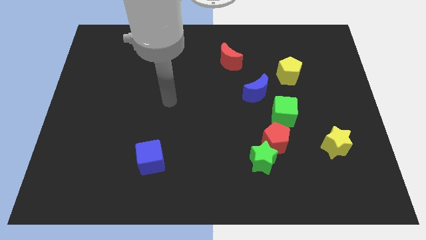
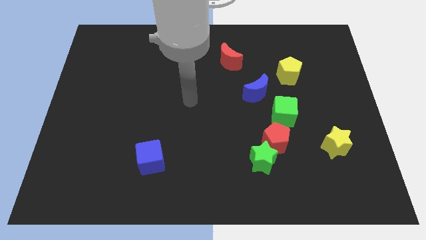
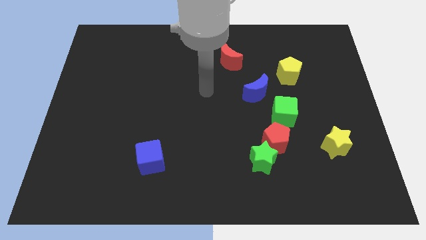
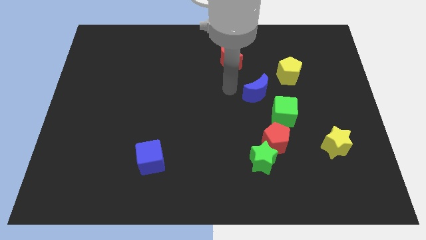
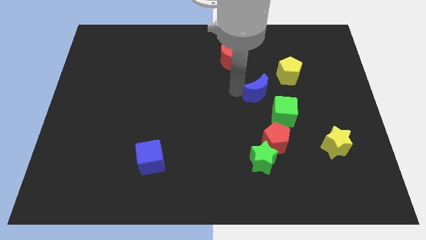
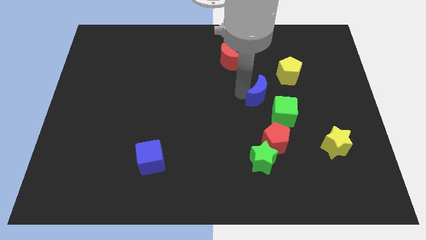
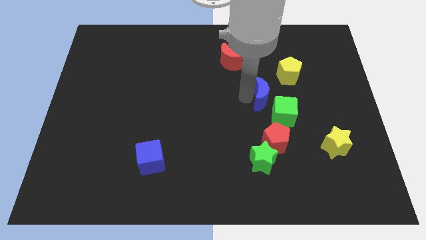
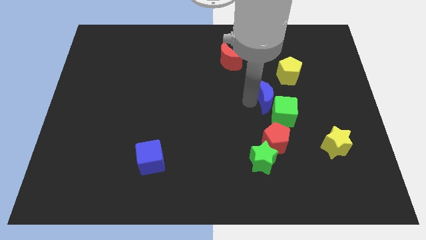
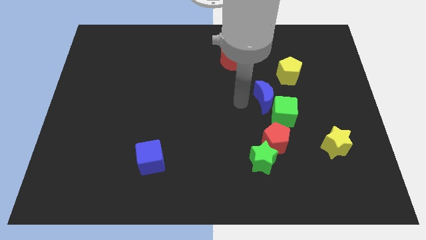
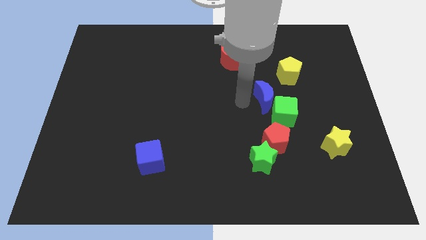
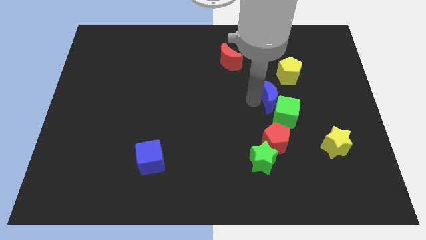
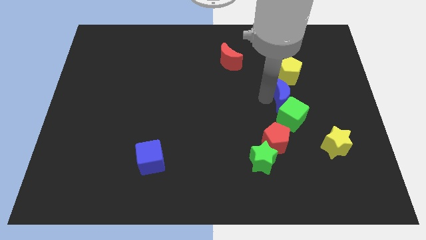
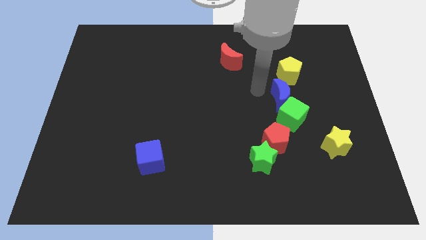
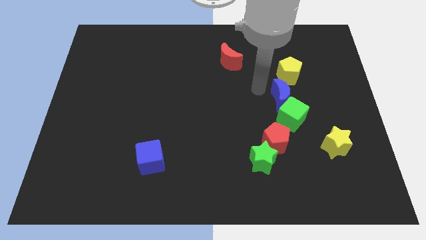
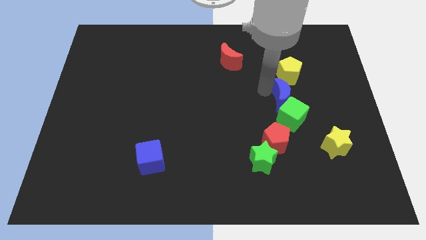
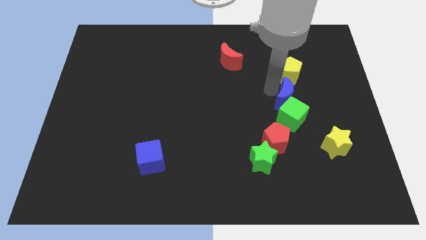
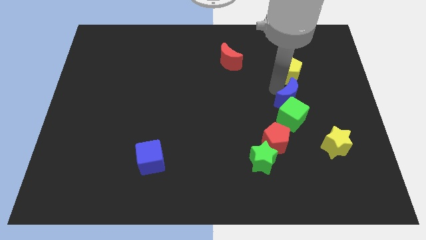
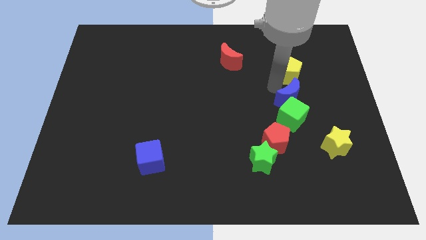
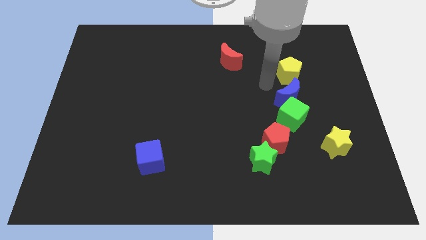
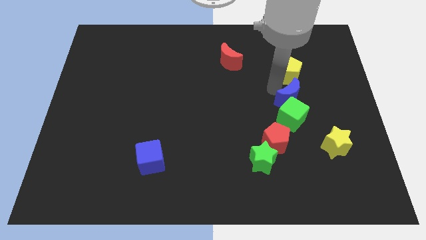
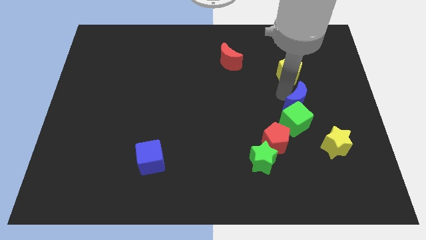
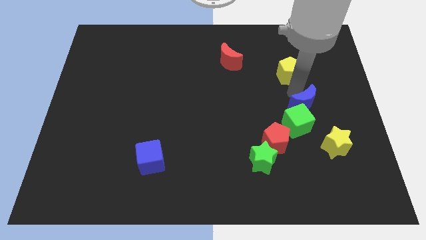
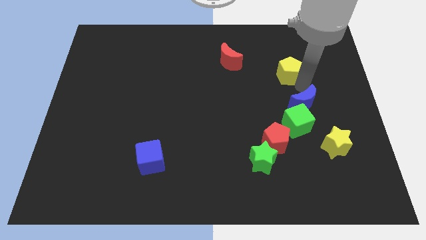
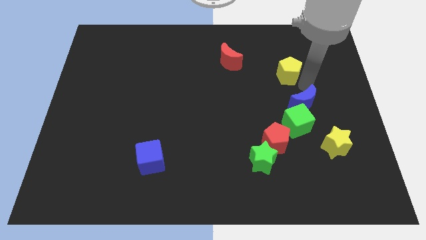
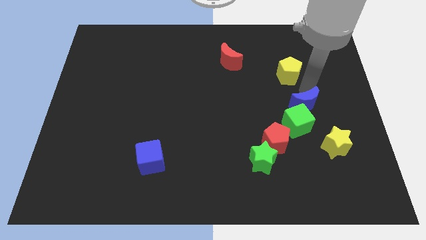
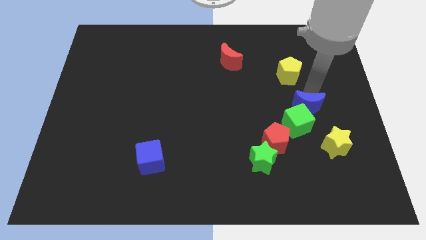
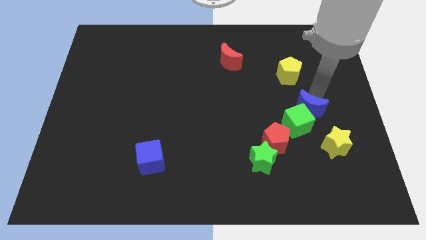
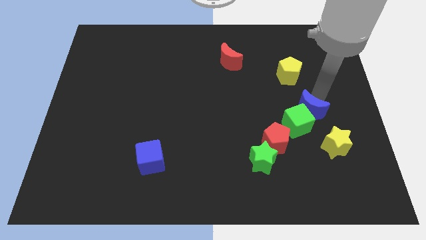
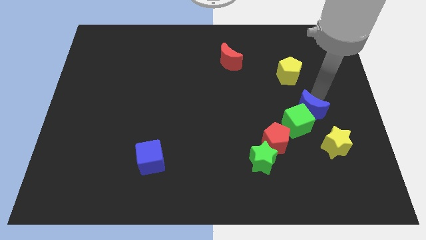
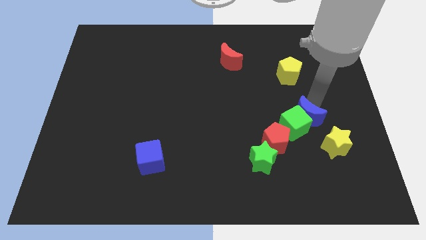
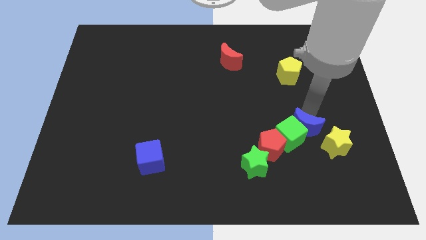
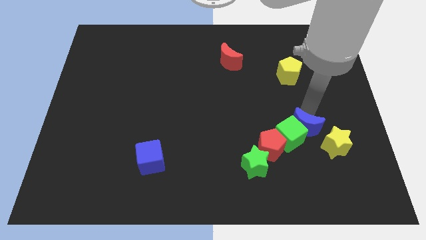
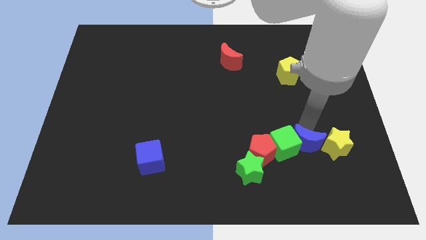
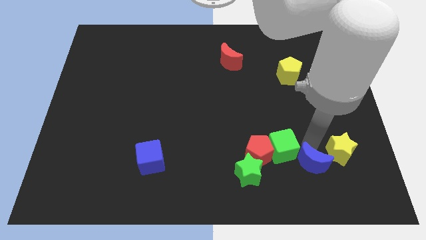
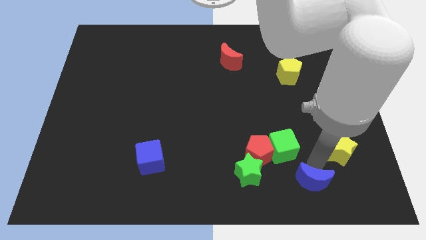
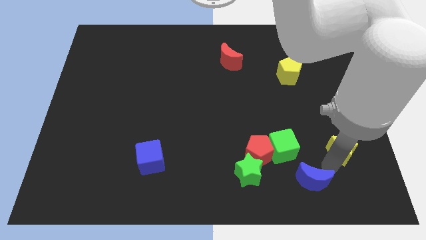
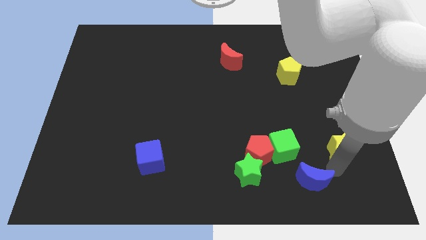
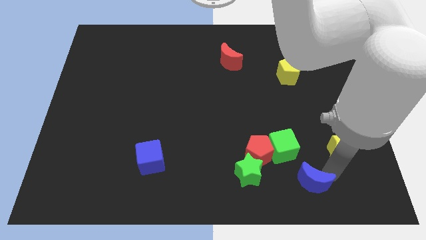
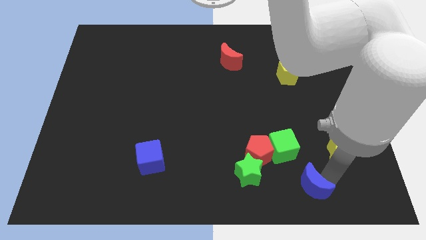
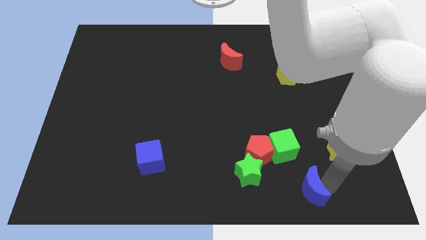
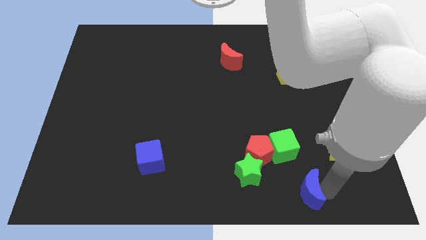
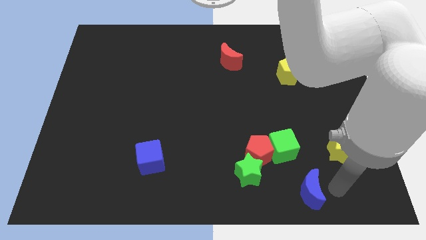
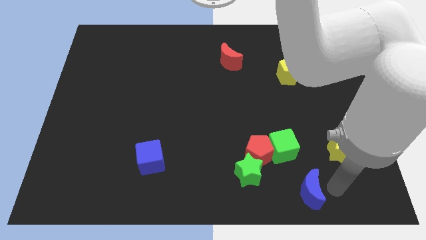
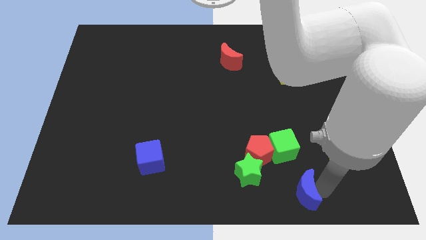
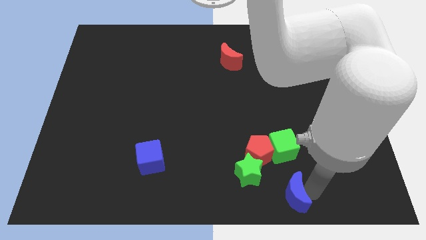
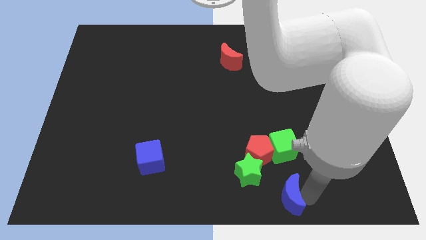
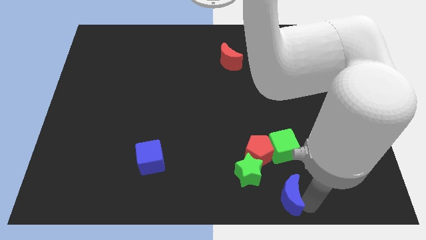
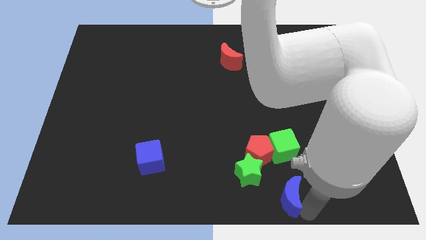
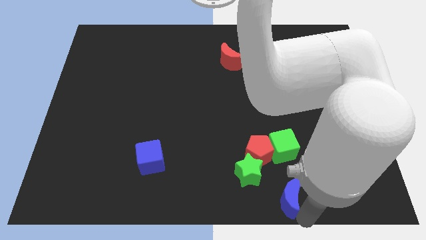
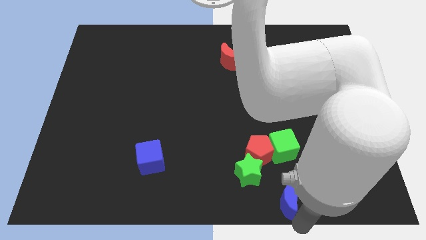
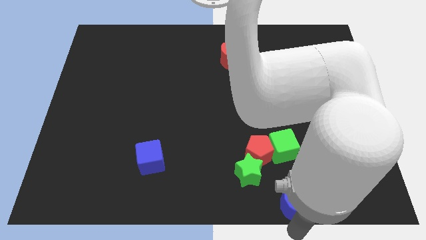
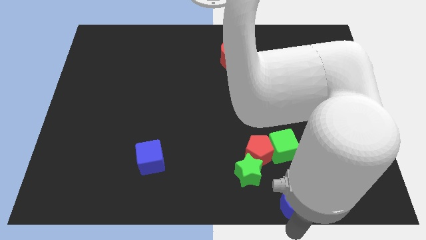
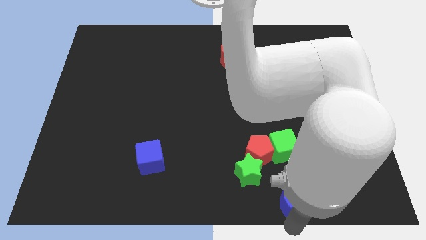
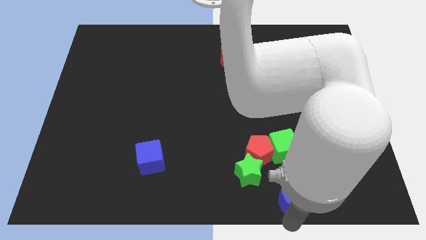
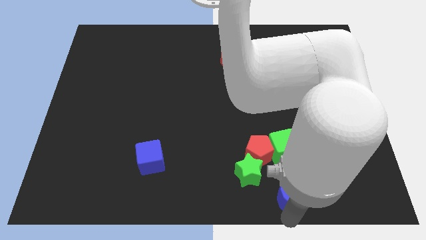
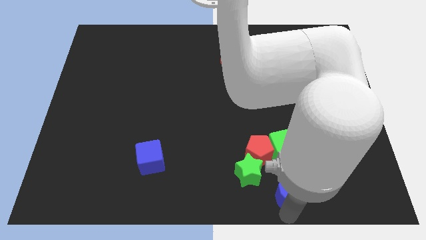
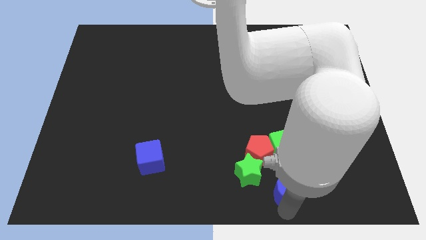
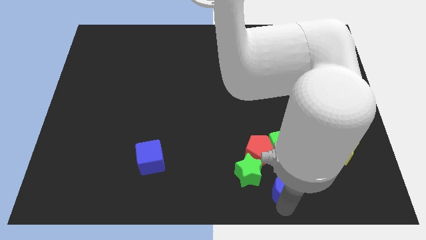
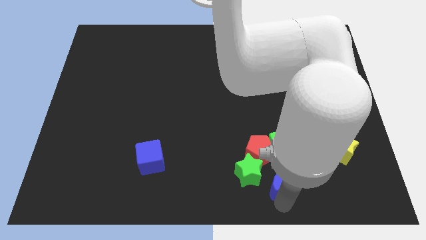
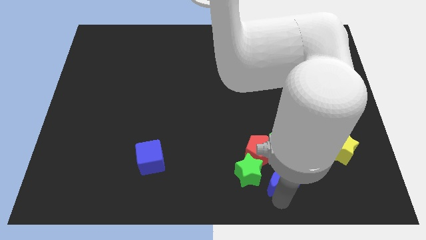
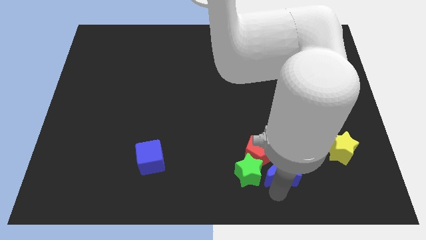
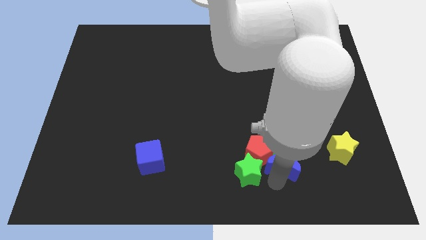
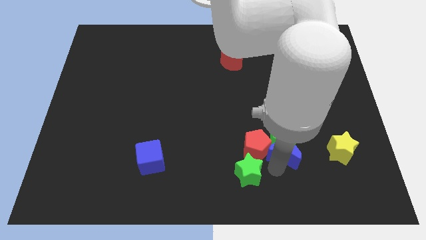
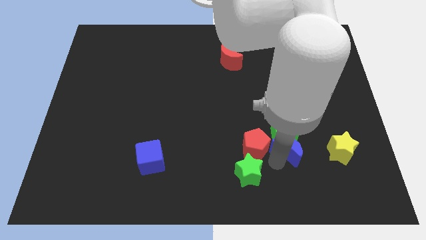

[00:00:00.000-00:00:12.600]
move the blue moon below the green cube

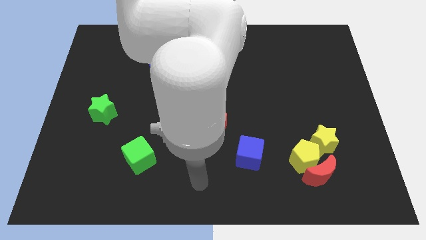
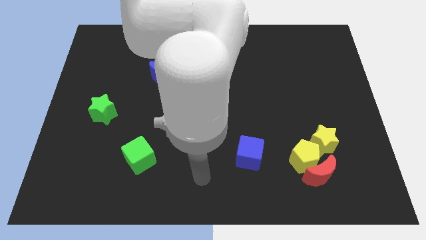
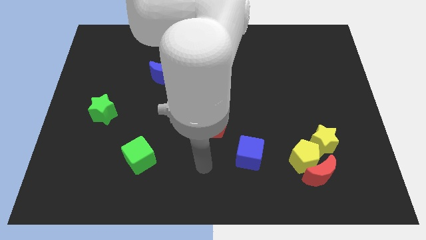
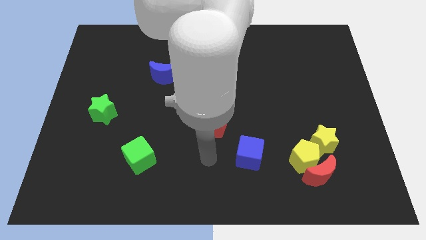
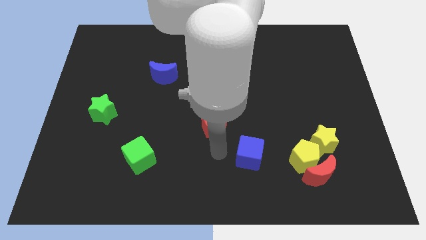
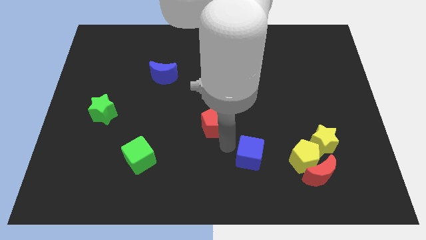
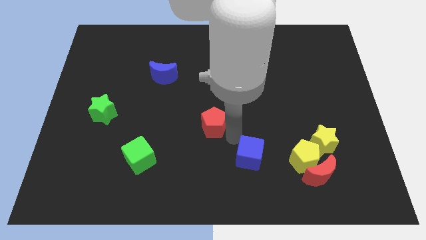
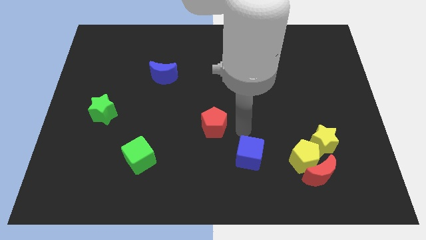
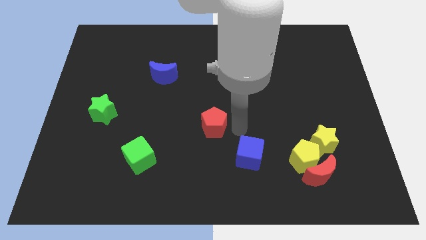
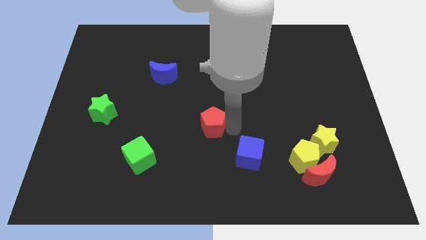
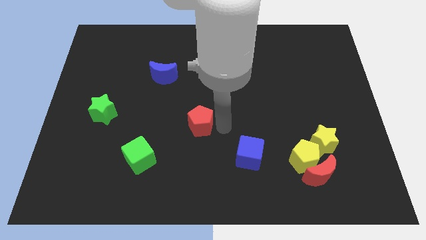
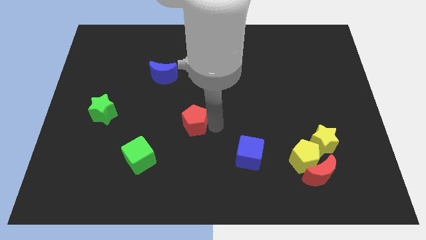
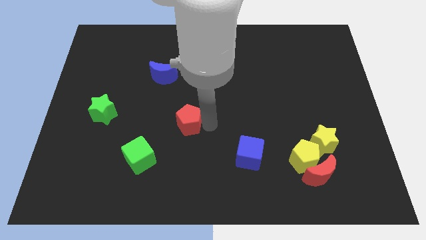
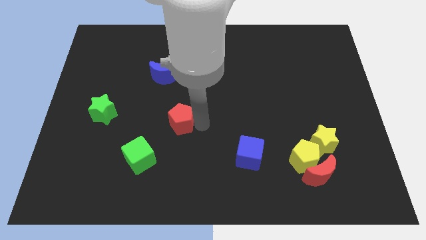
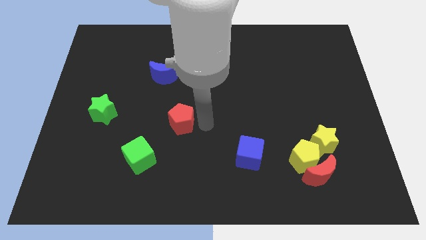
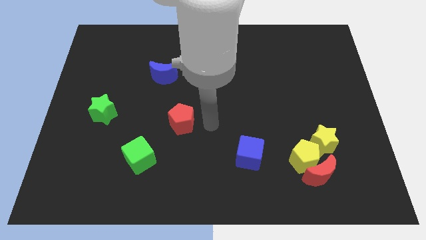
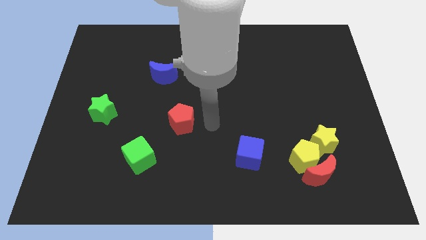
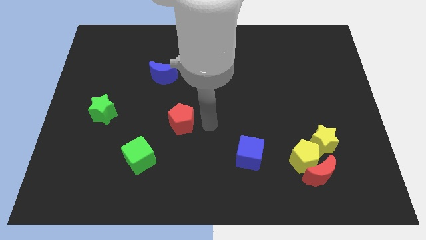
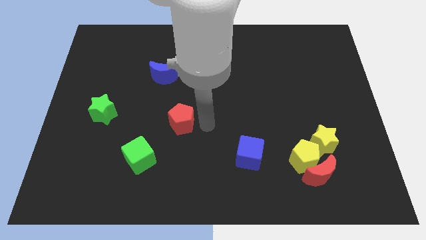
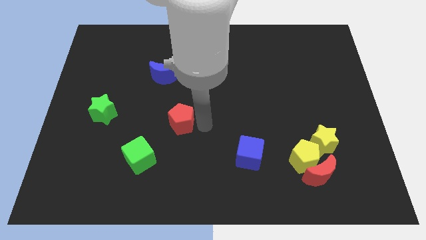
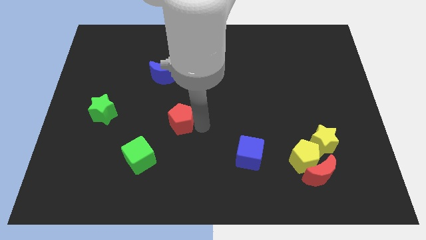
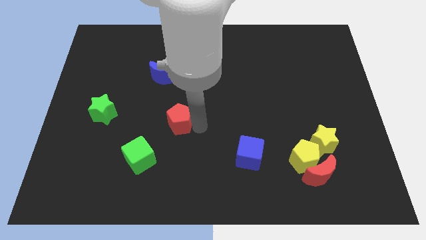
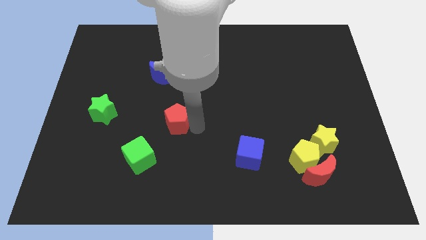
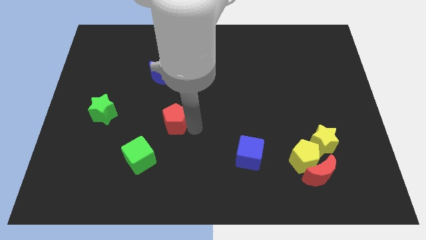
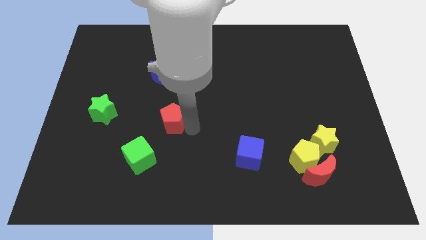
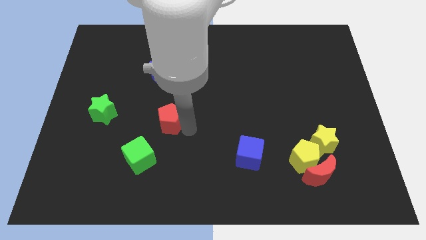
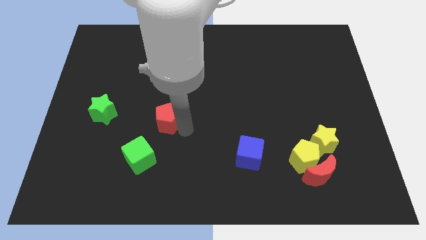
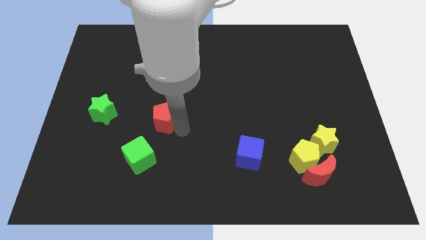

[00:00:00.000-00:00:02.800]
slide the red pentagon above the green cube
